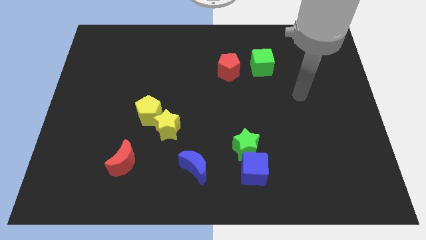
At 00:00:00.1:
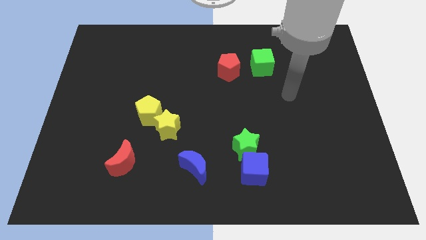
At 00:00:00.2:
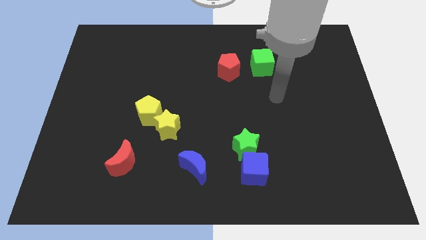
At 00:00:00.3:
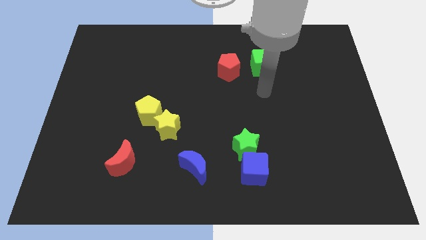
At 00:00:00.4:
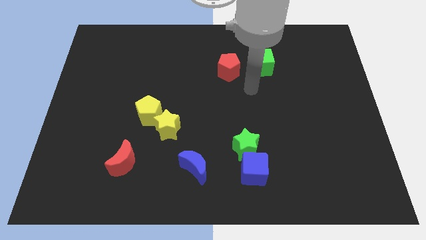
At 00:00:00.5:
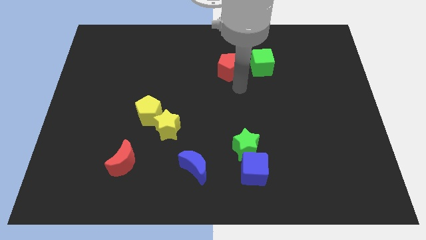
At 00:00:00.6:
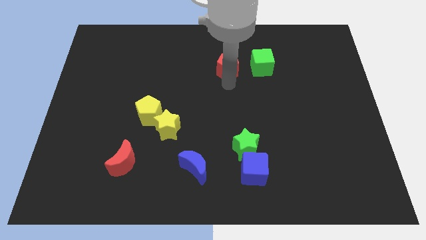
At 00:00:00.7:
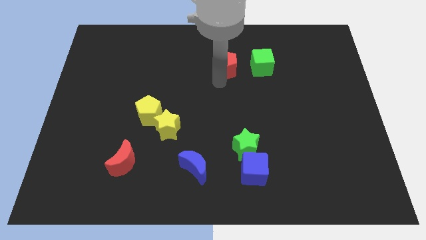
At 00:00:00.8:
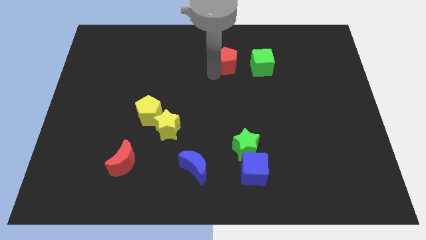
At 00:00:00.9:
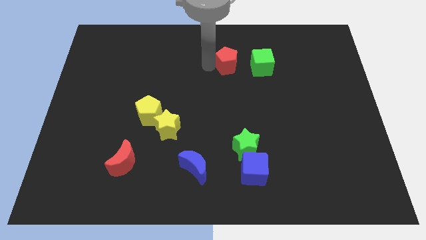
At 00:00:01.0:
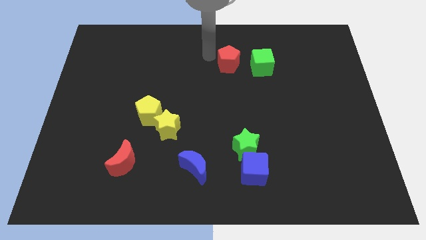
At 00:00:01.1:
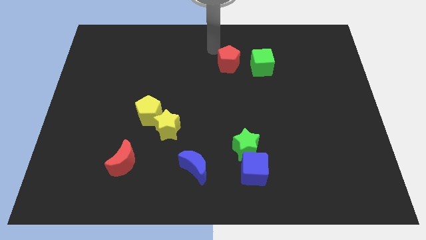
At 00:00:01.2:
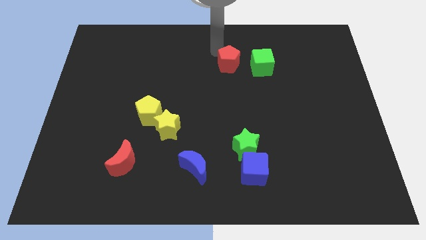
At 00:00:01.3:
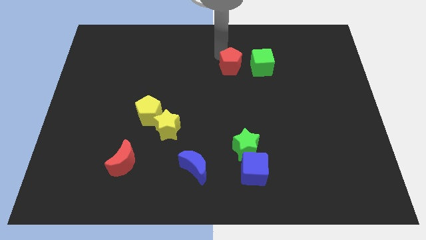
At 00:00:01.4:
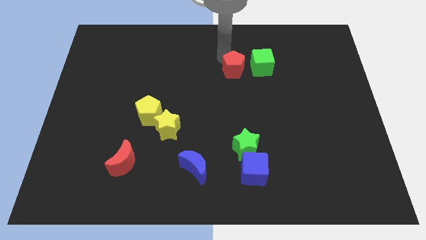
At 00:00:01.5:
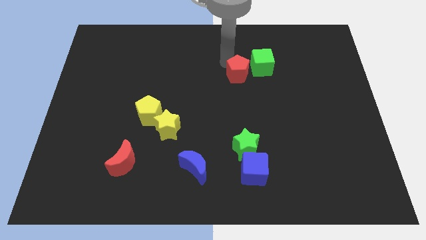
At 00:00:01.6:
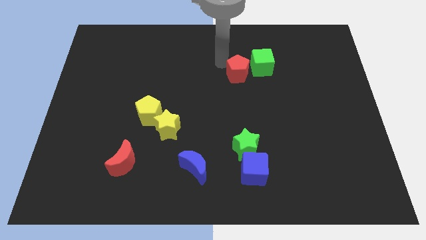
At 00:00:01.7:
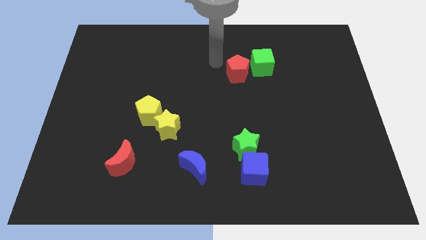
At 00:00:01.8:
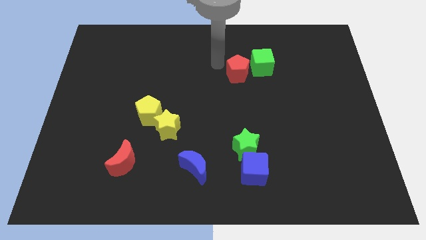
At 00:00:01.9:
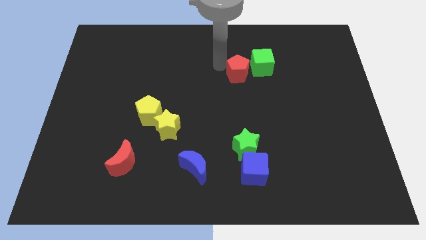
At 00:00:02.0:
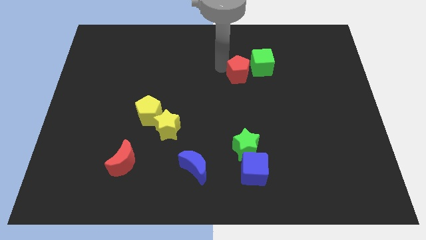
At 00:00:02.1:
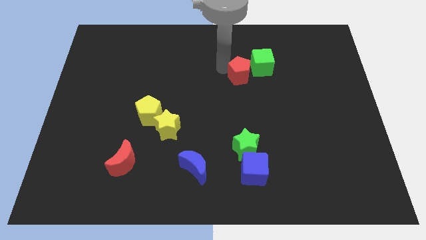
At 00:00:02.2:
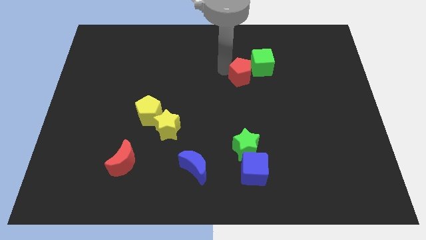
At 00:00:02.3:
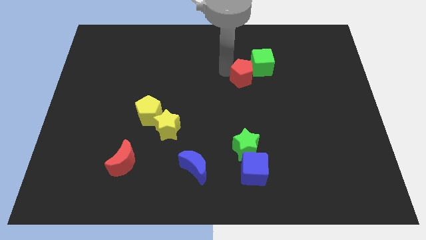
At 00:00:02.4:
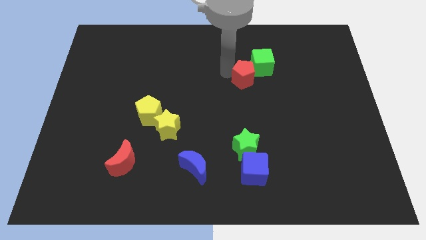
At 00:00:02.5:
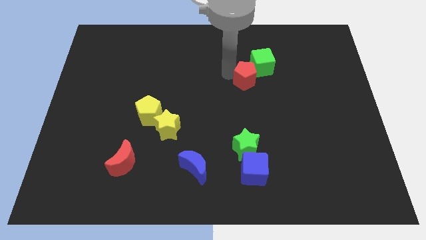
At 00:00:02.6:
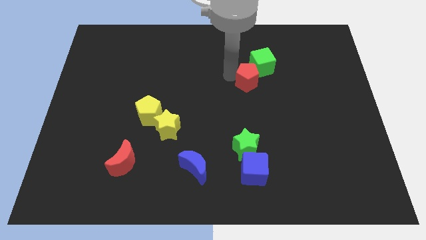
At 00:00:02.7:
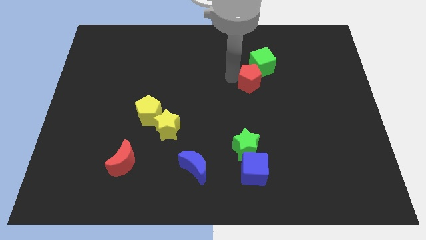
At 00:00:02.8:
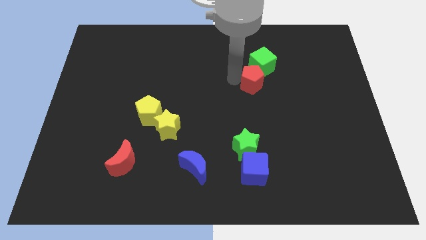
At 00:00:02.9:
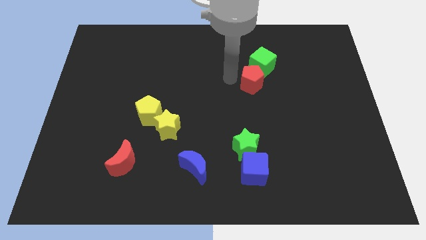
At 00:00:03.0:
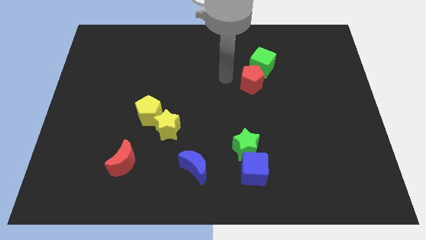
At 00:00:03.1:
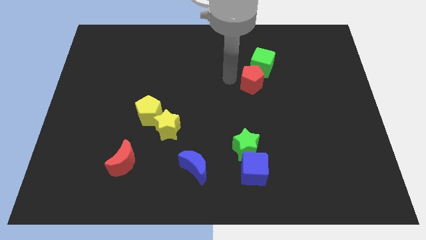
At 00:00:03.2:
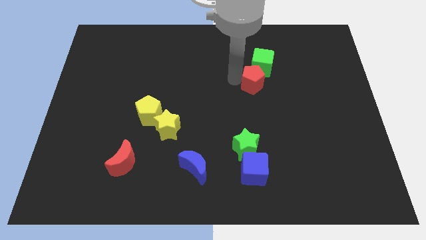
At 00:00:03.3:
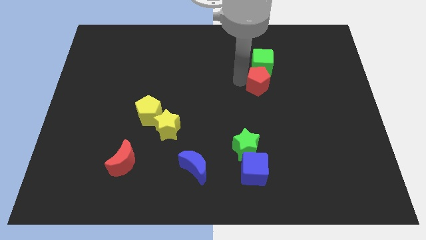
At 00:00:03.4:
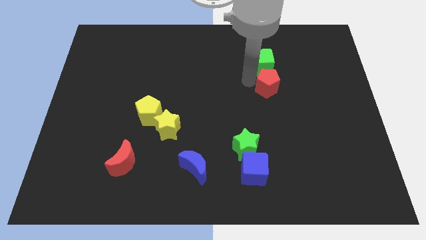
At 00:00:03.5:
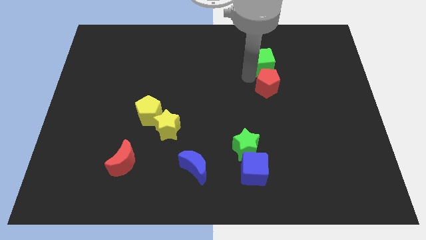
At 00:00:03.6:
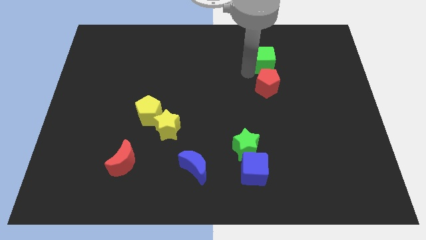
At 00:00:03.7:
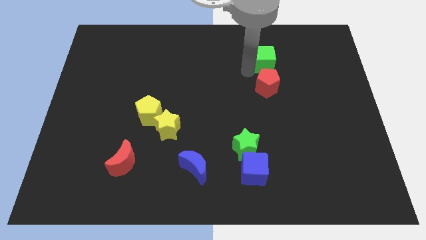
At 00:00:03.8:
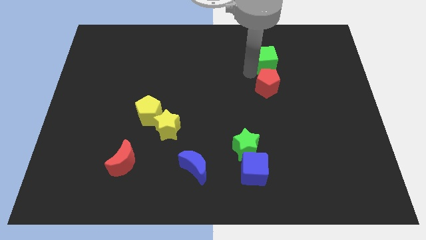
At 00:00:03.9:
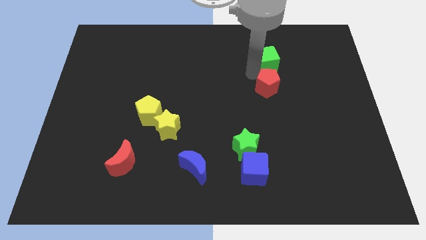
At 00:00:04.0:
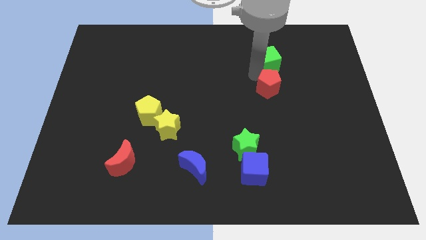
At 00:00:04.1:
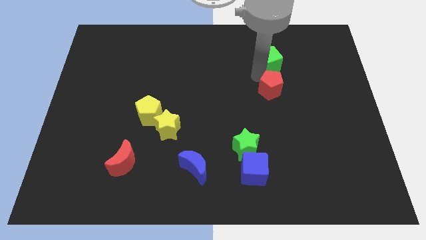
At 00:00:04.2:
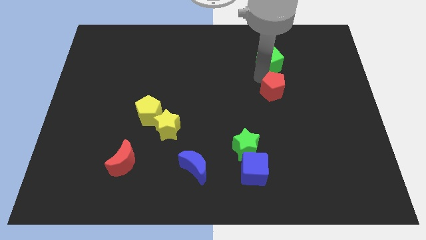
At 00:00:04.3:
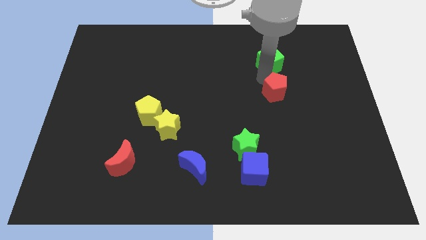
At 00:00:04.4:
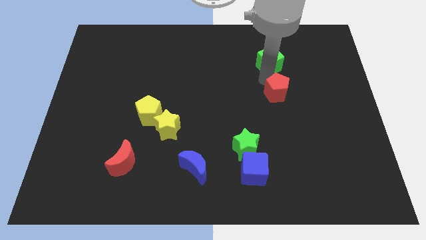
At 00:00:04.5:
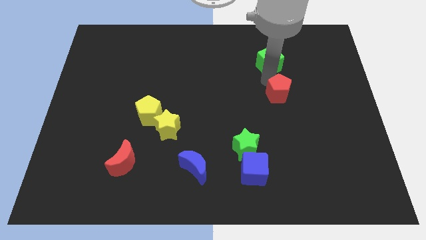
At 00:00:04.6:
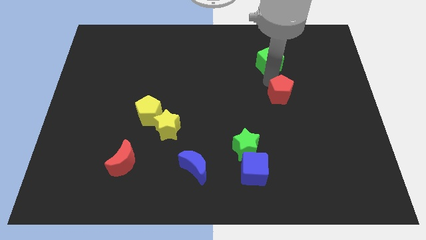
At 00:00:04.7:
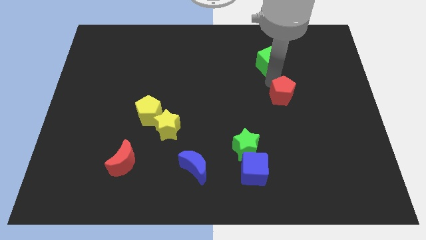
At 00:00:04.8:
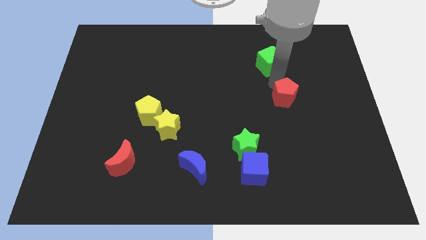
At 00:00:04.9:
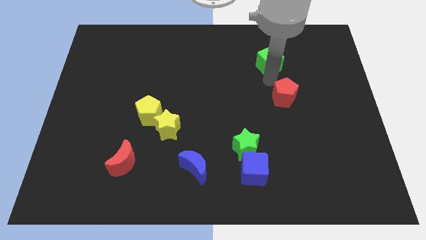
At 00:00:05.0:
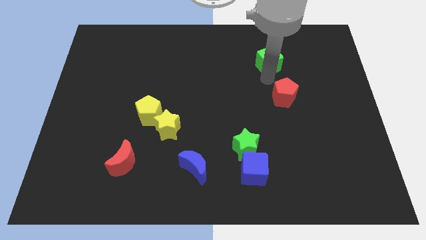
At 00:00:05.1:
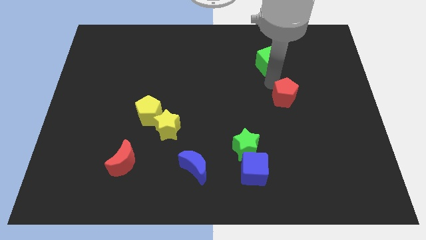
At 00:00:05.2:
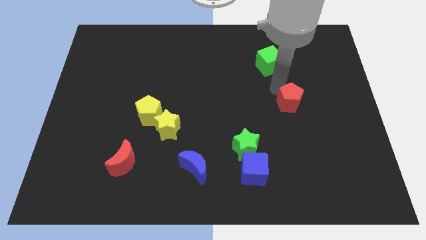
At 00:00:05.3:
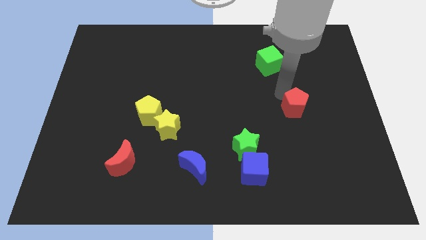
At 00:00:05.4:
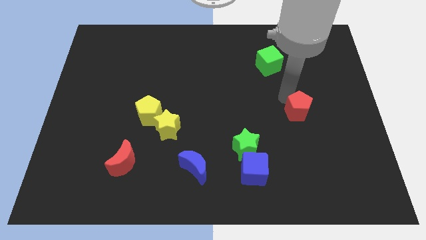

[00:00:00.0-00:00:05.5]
slide the red pentagon downwards and to the right diagonally

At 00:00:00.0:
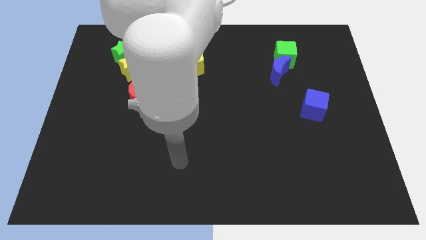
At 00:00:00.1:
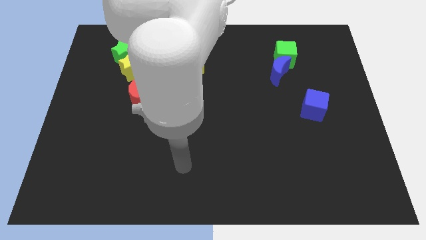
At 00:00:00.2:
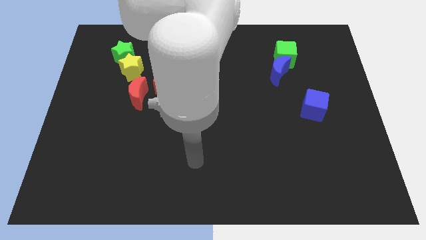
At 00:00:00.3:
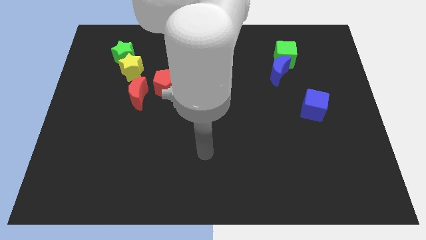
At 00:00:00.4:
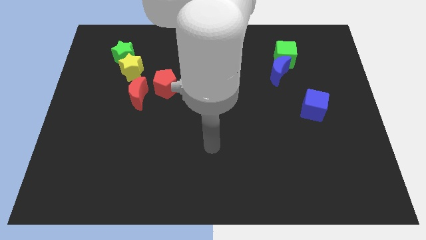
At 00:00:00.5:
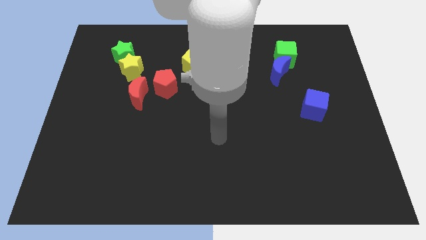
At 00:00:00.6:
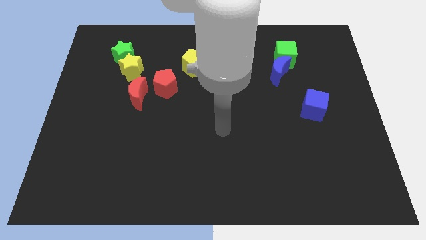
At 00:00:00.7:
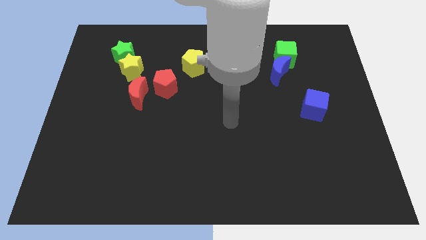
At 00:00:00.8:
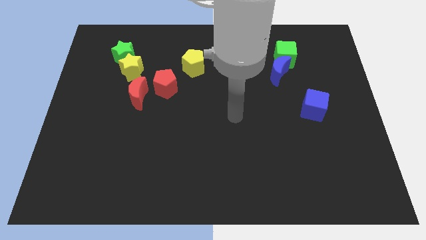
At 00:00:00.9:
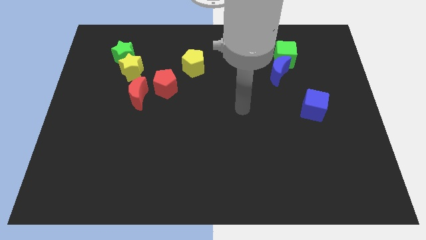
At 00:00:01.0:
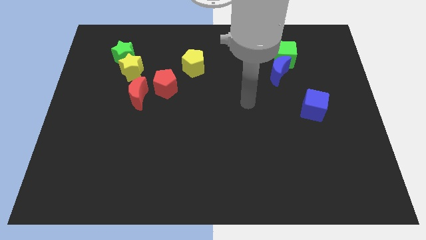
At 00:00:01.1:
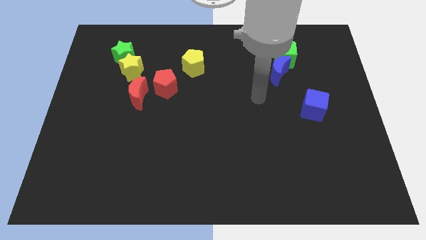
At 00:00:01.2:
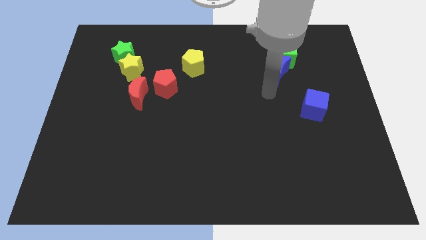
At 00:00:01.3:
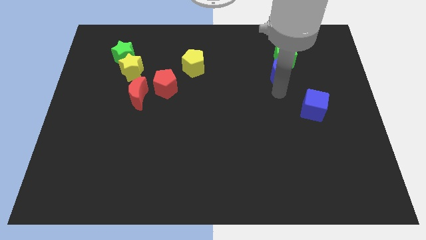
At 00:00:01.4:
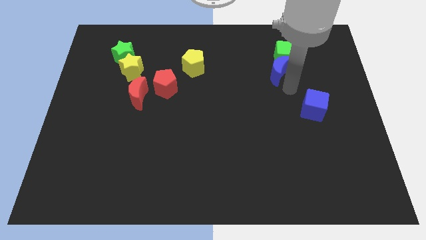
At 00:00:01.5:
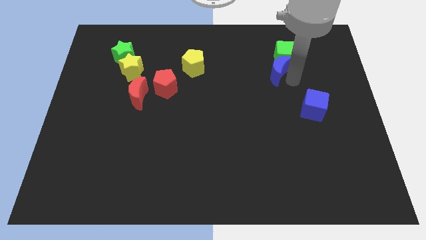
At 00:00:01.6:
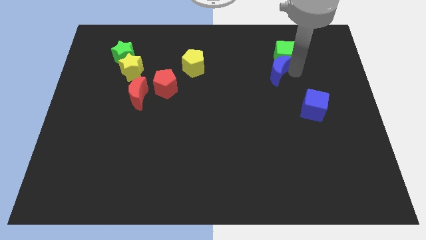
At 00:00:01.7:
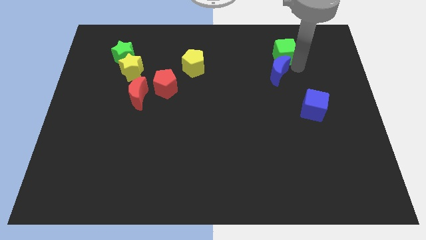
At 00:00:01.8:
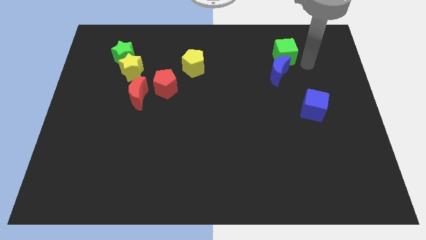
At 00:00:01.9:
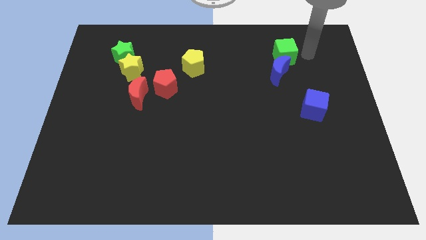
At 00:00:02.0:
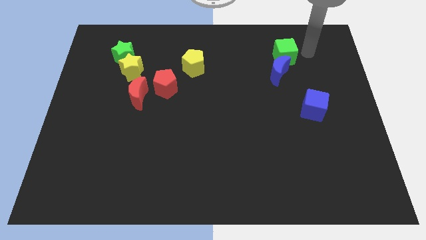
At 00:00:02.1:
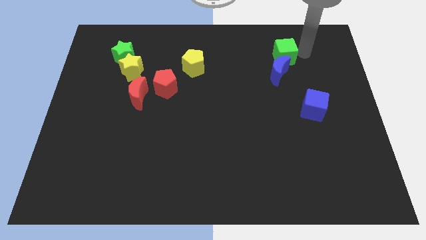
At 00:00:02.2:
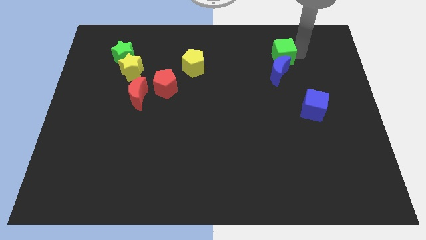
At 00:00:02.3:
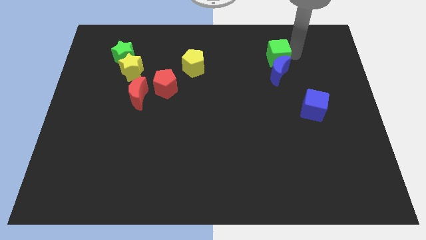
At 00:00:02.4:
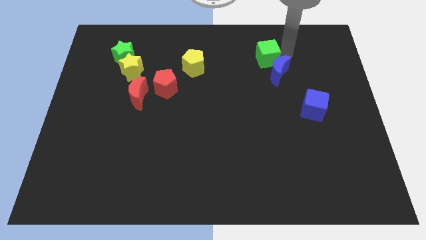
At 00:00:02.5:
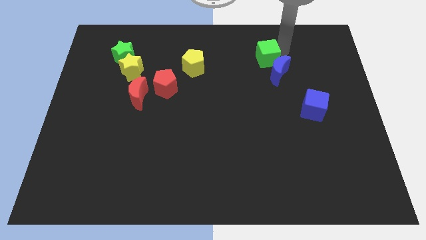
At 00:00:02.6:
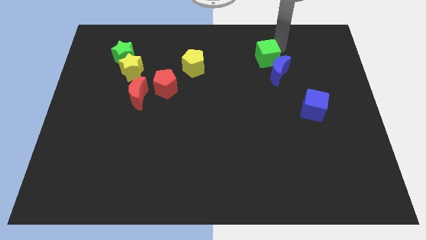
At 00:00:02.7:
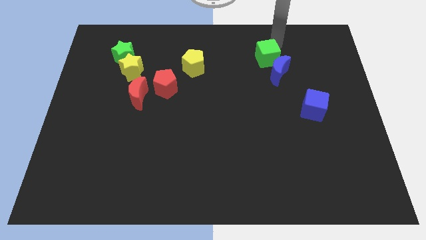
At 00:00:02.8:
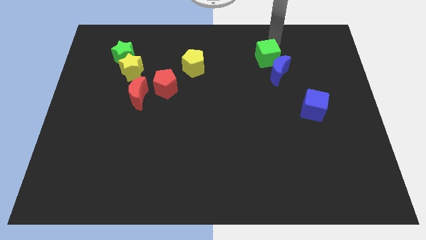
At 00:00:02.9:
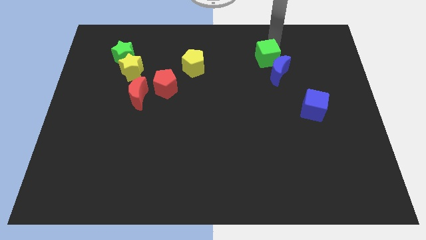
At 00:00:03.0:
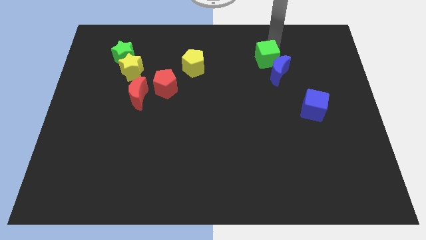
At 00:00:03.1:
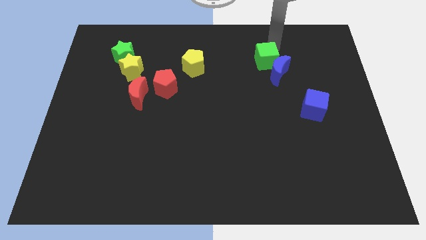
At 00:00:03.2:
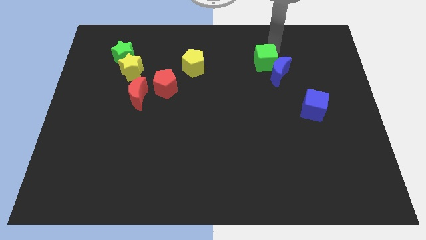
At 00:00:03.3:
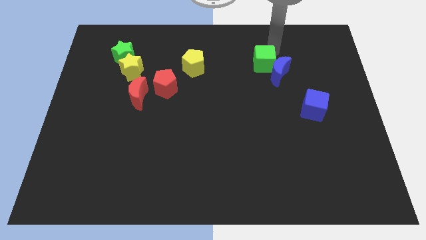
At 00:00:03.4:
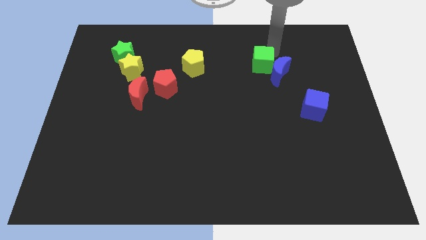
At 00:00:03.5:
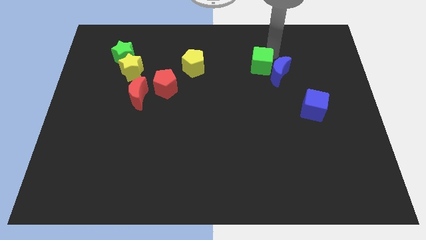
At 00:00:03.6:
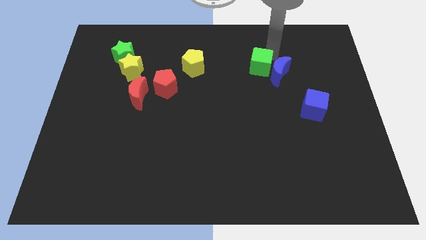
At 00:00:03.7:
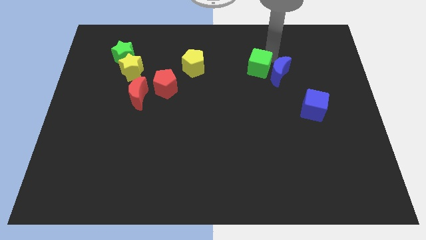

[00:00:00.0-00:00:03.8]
slightly push the green cube downwards and then left
